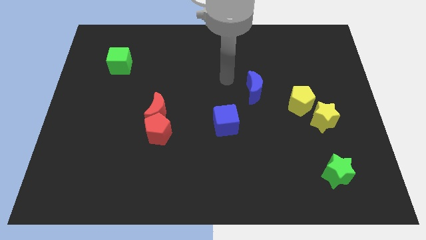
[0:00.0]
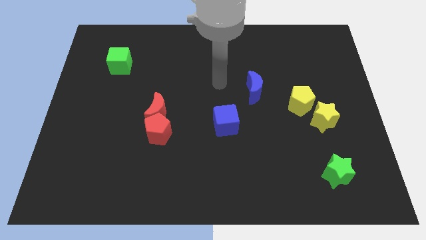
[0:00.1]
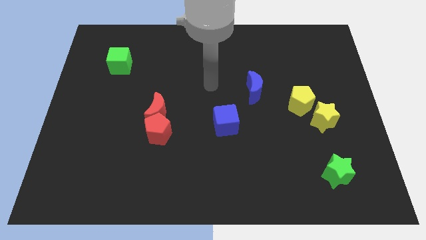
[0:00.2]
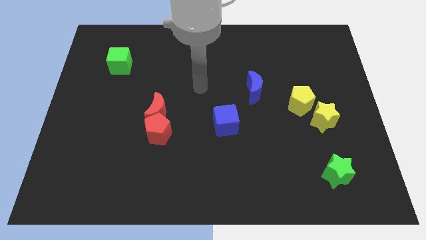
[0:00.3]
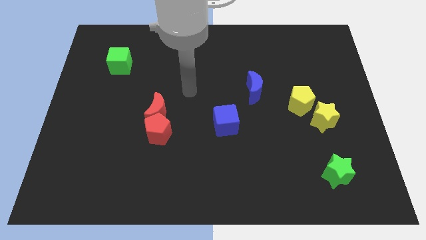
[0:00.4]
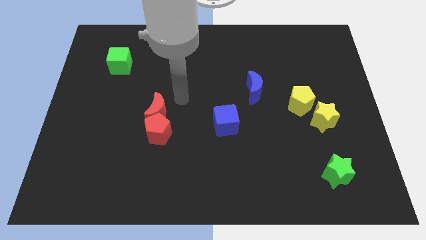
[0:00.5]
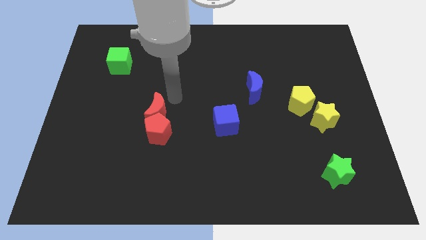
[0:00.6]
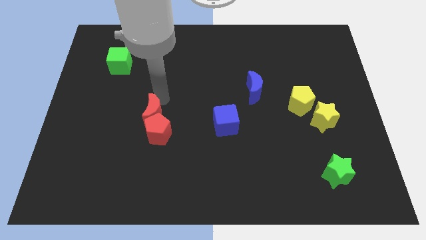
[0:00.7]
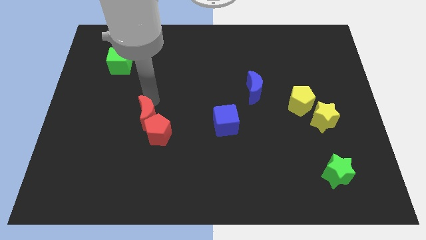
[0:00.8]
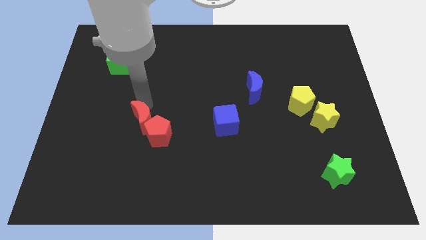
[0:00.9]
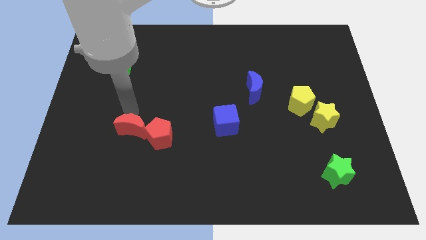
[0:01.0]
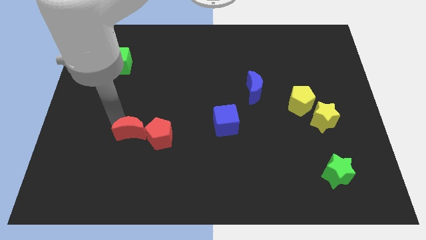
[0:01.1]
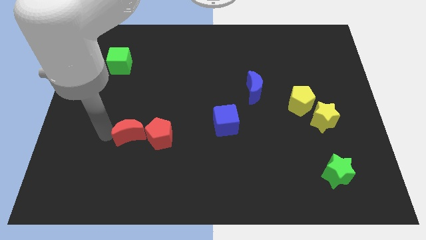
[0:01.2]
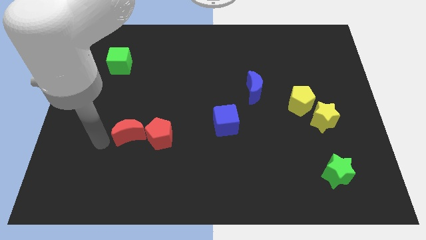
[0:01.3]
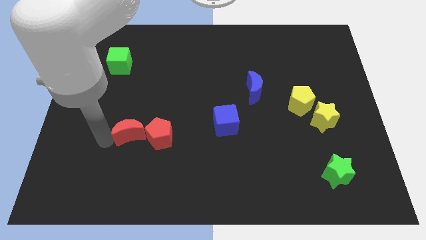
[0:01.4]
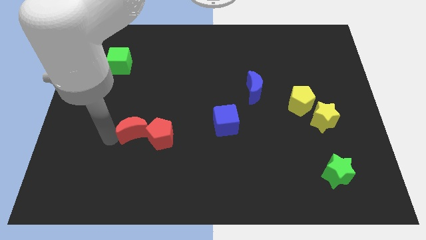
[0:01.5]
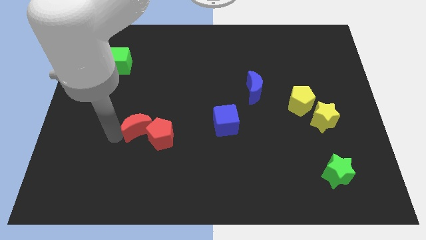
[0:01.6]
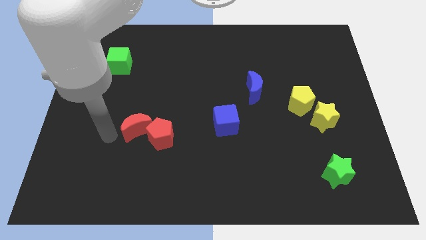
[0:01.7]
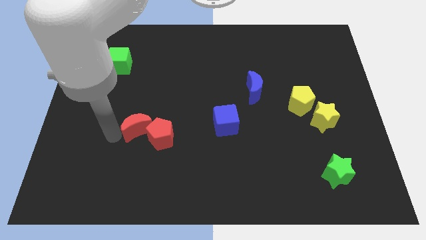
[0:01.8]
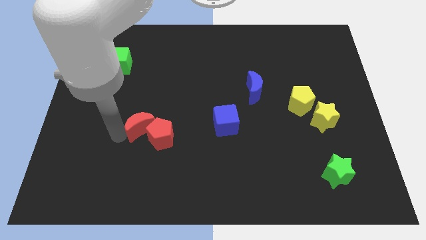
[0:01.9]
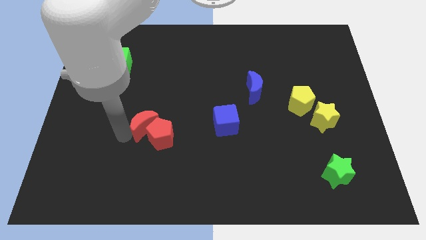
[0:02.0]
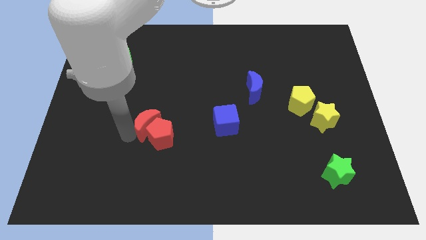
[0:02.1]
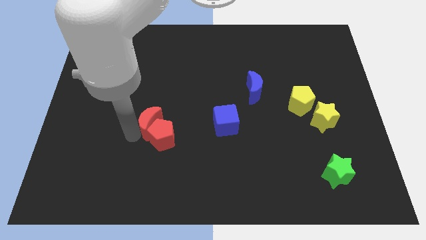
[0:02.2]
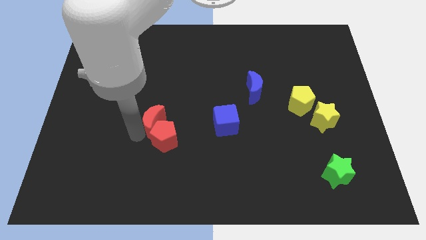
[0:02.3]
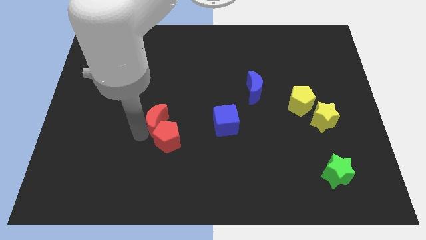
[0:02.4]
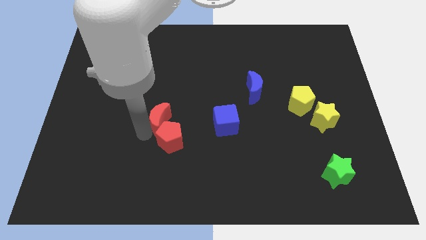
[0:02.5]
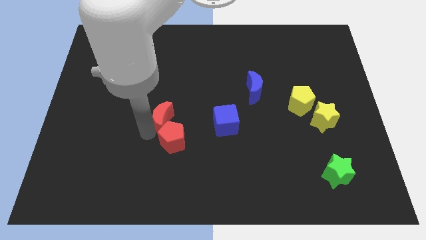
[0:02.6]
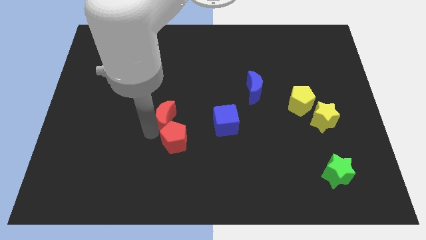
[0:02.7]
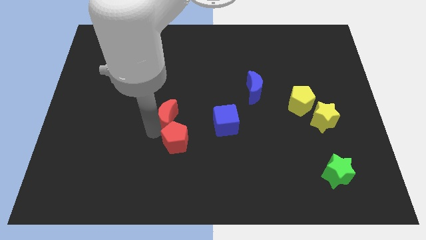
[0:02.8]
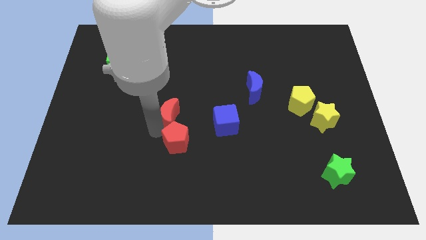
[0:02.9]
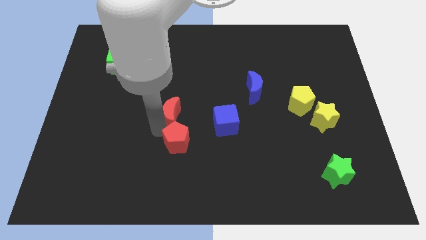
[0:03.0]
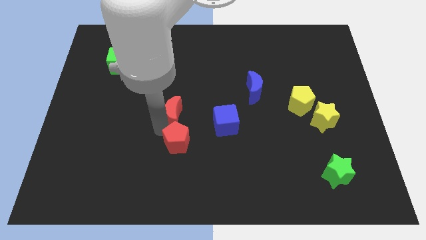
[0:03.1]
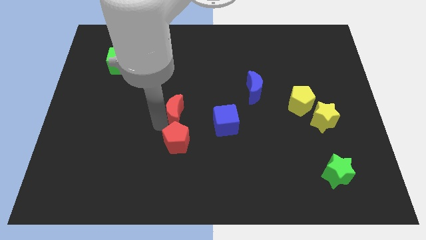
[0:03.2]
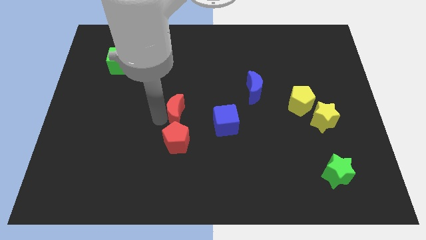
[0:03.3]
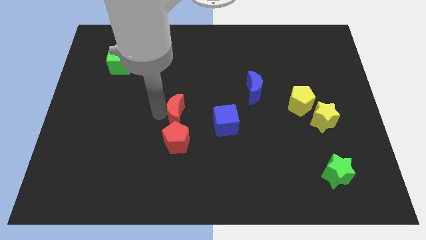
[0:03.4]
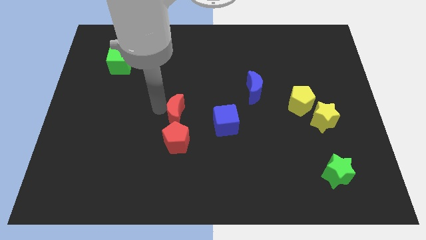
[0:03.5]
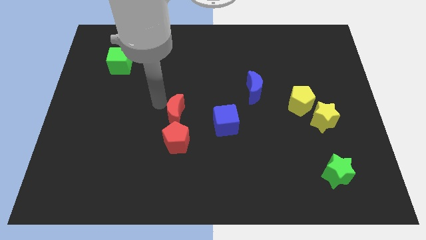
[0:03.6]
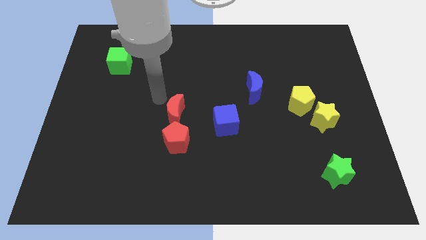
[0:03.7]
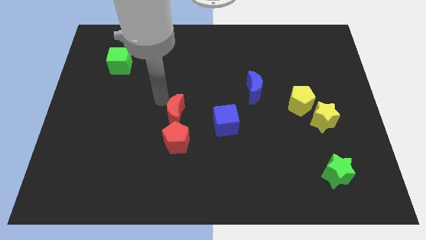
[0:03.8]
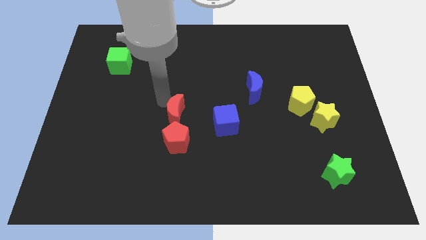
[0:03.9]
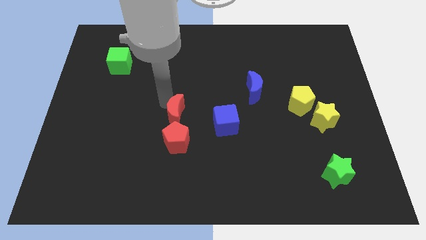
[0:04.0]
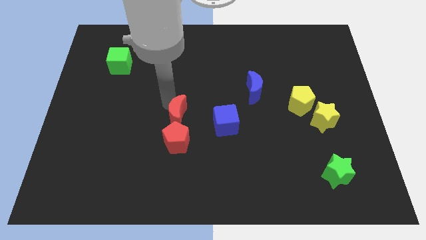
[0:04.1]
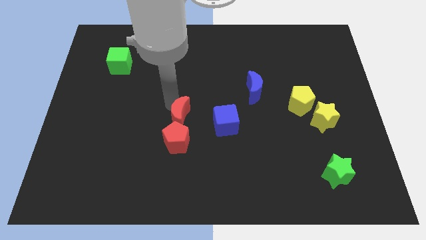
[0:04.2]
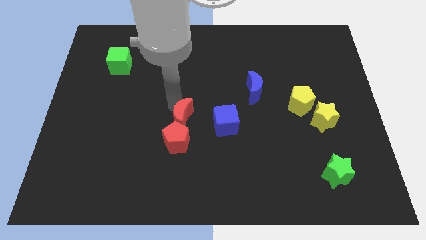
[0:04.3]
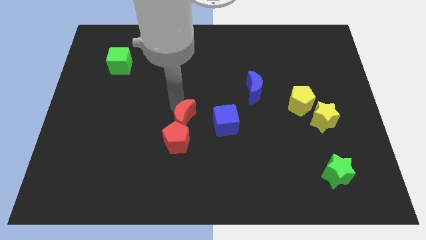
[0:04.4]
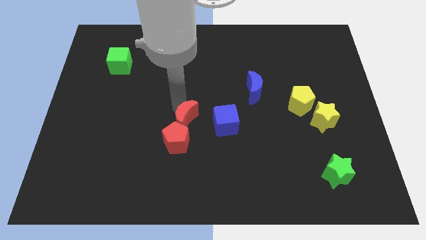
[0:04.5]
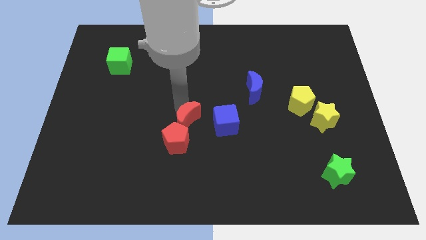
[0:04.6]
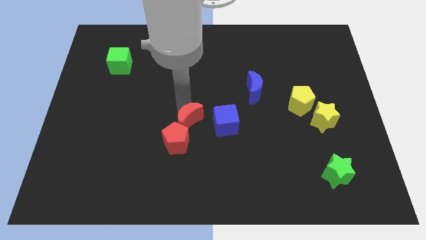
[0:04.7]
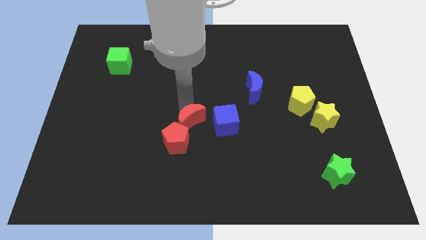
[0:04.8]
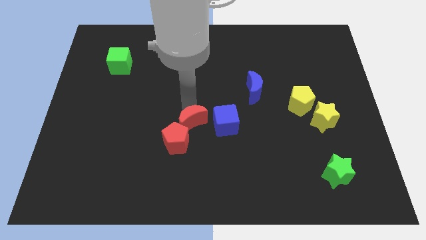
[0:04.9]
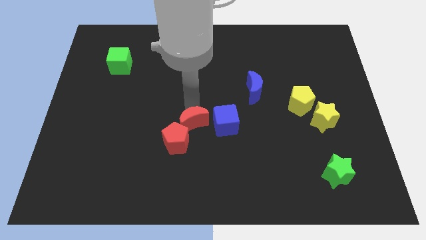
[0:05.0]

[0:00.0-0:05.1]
slide the red moon downwards and to the right a little bit

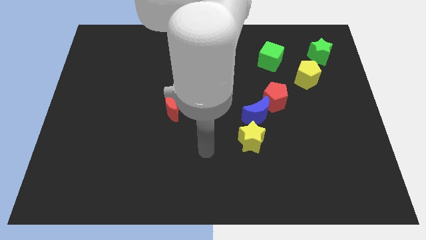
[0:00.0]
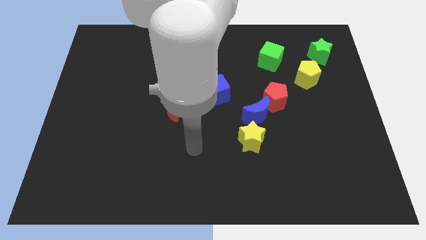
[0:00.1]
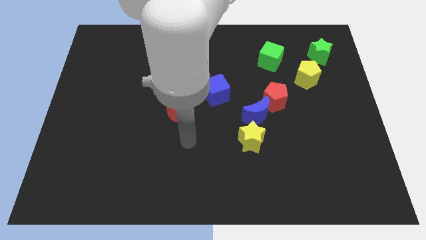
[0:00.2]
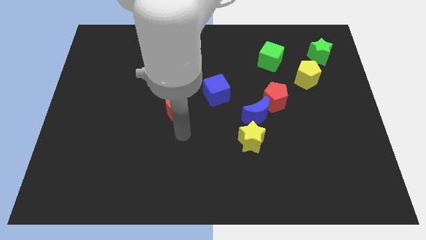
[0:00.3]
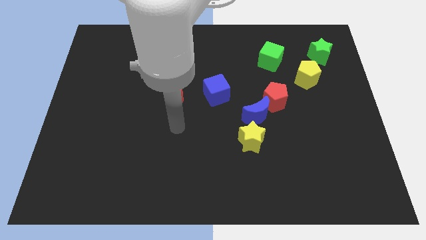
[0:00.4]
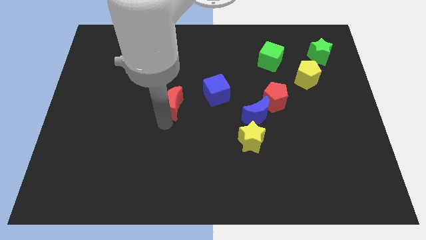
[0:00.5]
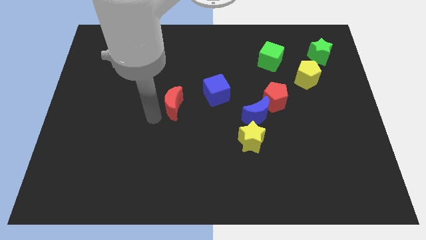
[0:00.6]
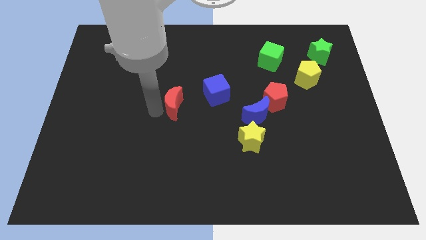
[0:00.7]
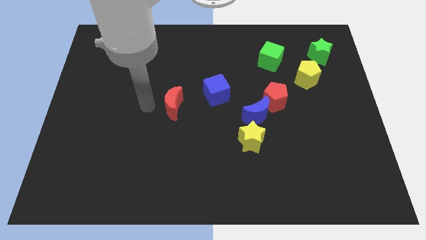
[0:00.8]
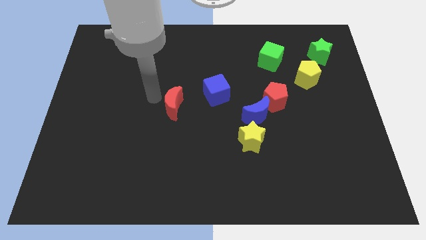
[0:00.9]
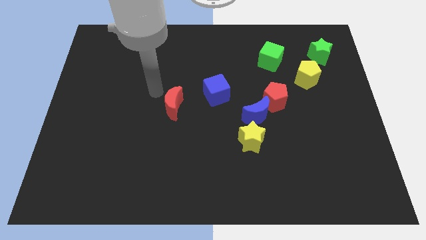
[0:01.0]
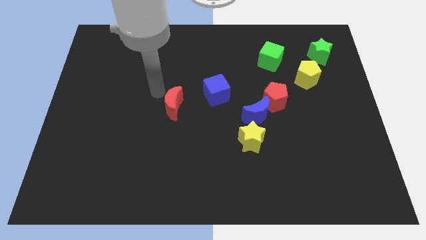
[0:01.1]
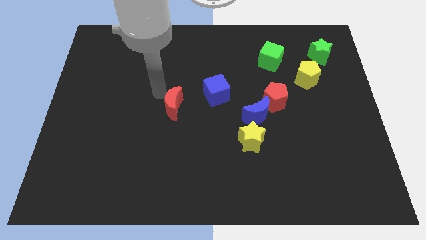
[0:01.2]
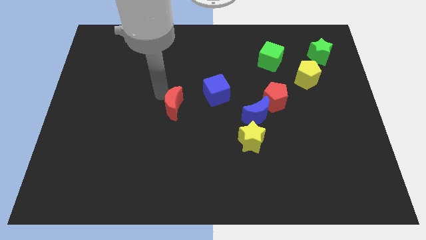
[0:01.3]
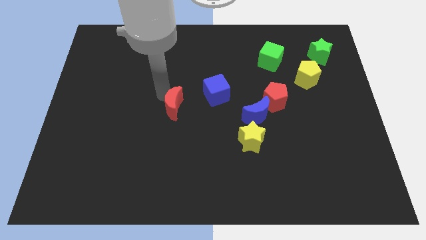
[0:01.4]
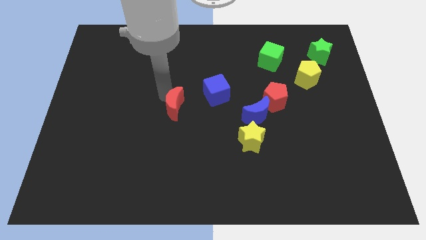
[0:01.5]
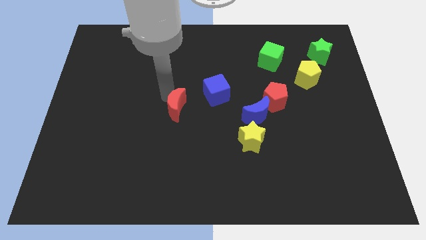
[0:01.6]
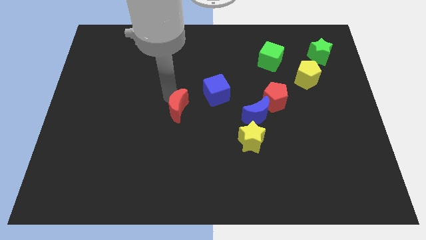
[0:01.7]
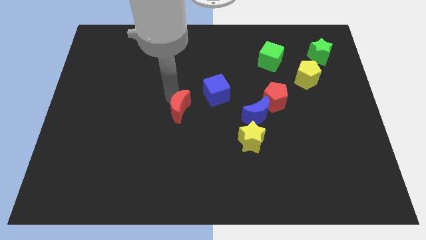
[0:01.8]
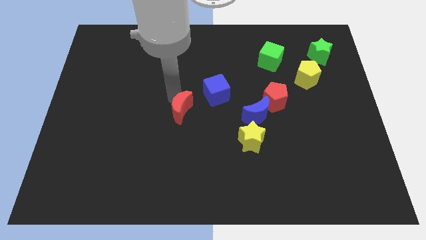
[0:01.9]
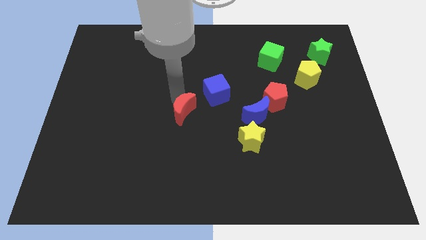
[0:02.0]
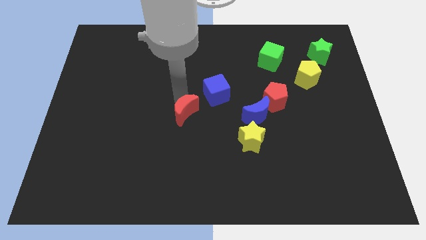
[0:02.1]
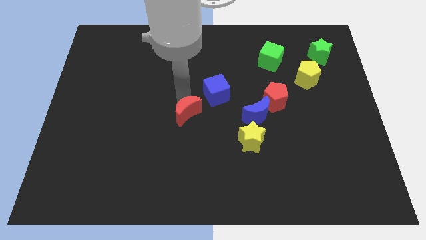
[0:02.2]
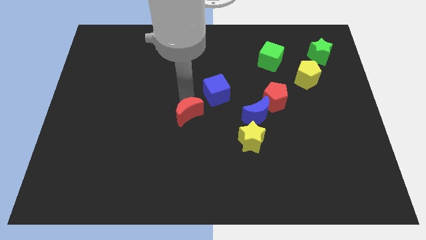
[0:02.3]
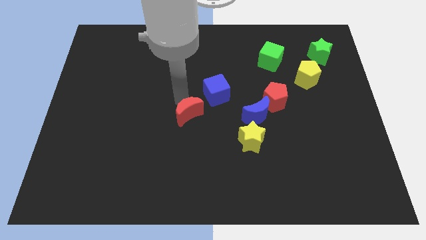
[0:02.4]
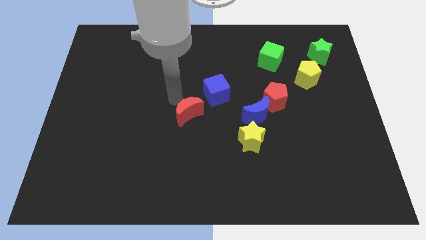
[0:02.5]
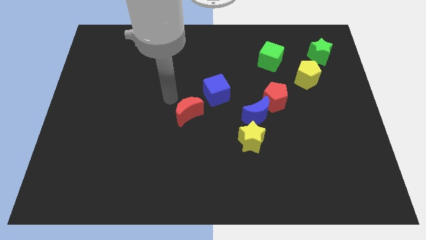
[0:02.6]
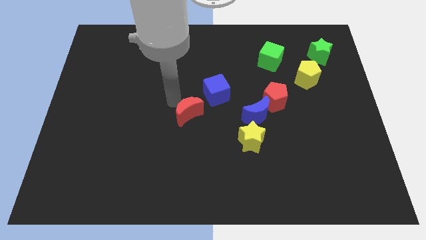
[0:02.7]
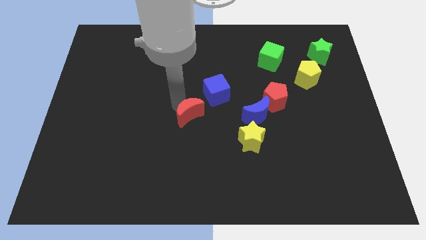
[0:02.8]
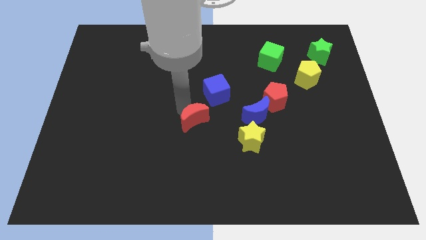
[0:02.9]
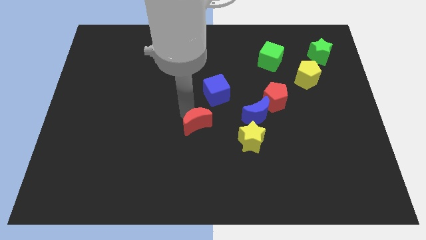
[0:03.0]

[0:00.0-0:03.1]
push the red moon a little bit down and then right

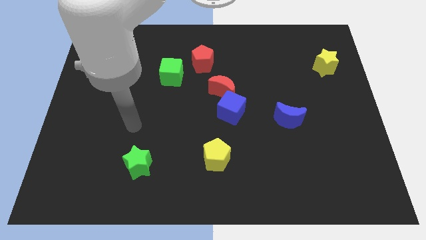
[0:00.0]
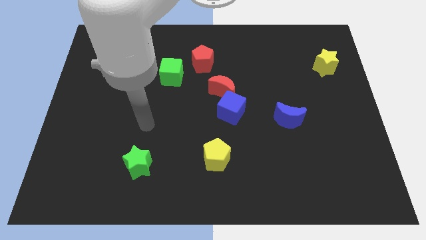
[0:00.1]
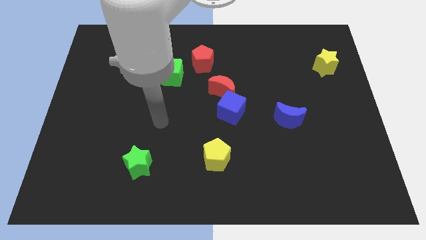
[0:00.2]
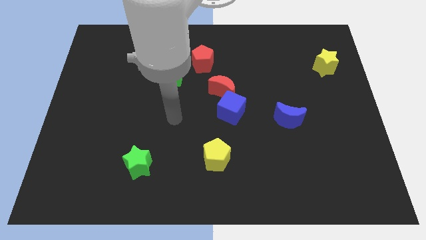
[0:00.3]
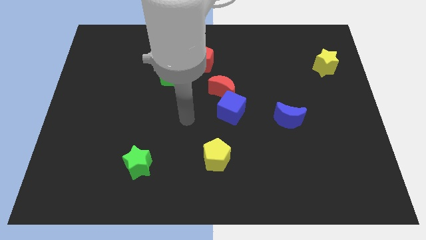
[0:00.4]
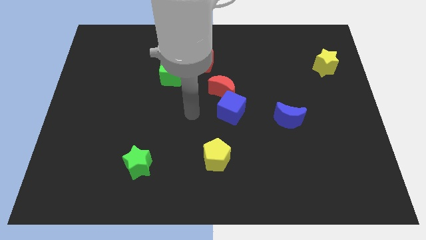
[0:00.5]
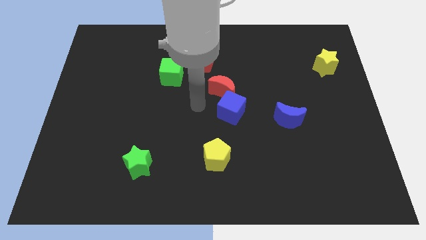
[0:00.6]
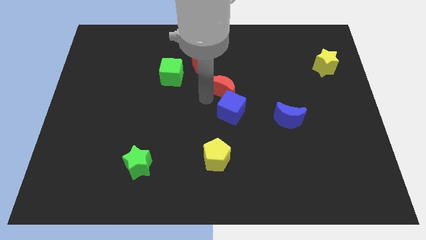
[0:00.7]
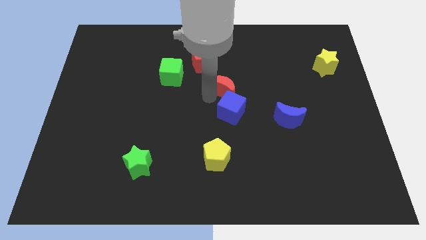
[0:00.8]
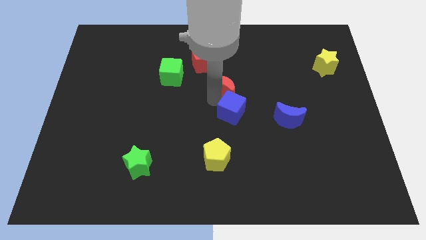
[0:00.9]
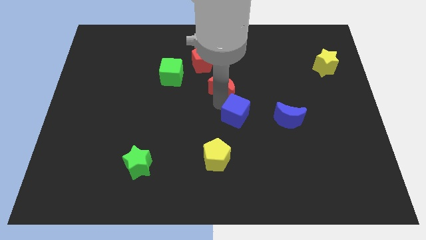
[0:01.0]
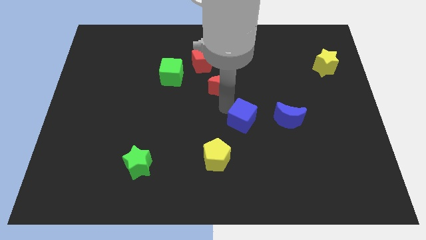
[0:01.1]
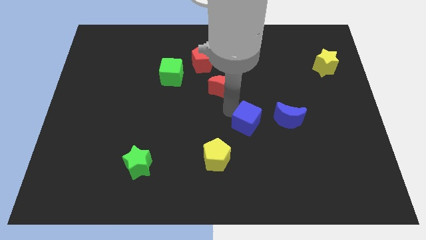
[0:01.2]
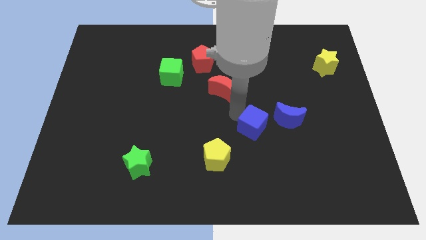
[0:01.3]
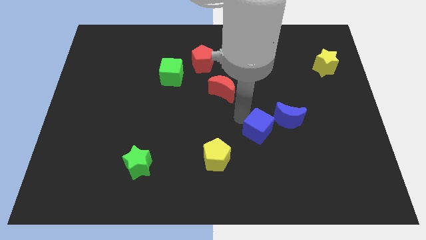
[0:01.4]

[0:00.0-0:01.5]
move the blue cube diagonally down and to the right slightly
